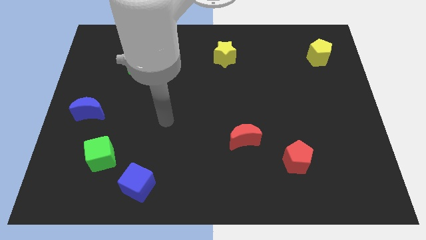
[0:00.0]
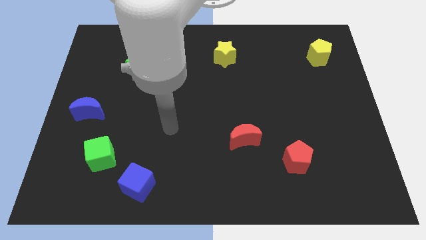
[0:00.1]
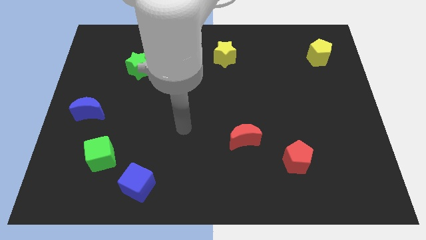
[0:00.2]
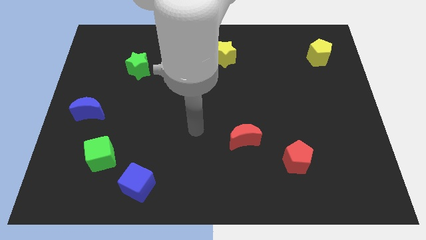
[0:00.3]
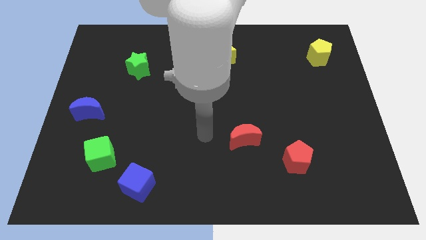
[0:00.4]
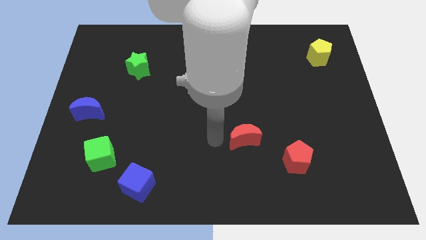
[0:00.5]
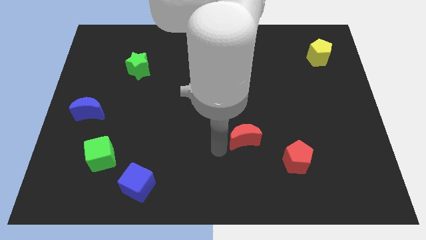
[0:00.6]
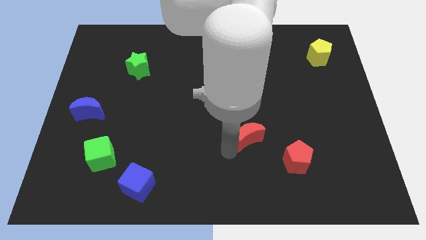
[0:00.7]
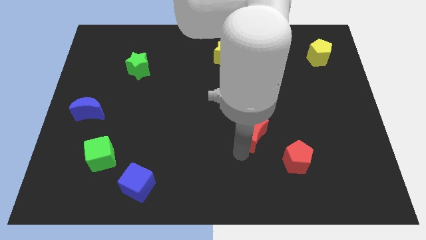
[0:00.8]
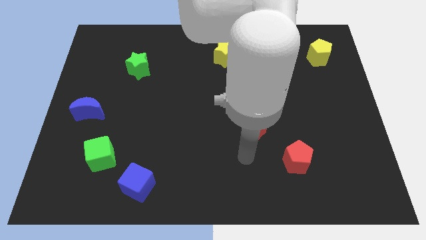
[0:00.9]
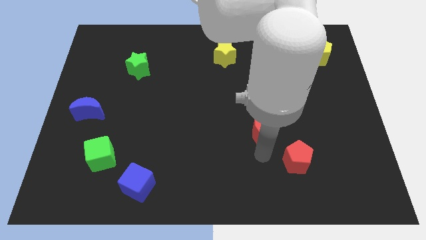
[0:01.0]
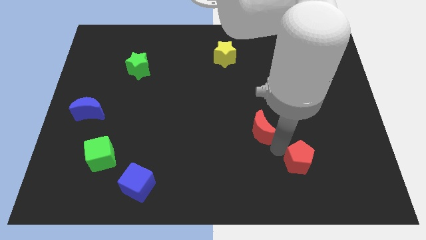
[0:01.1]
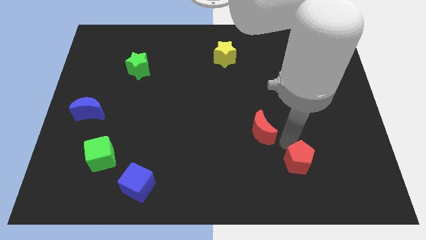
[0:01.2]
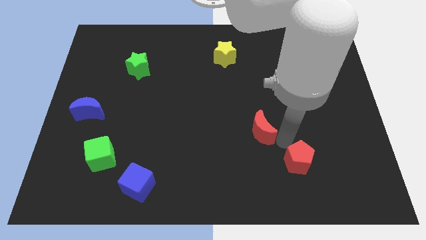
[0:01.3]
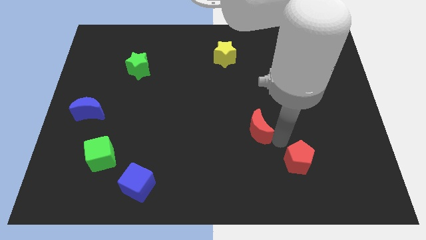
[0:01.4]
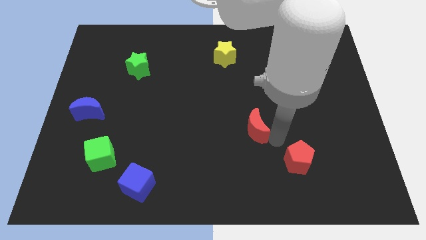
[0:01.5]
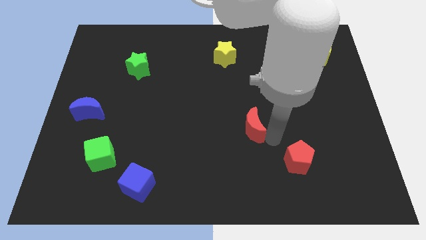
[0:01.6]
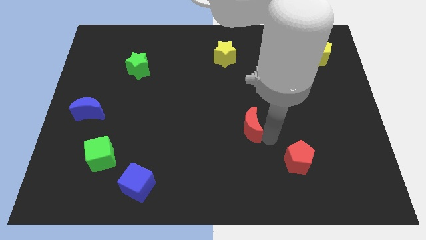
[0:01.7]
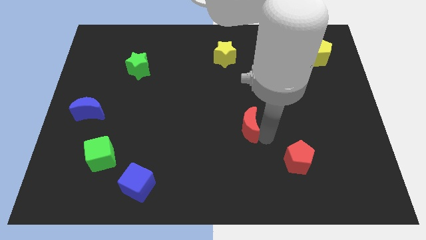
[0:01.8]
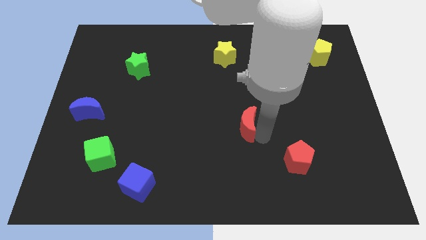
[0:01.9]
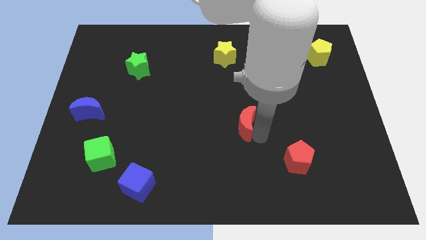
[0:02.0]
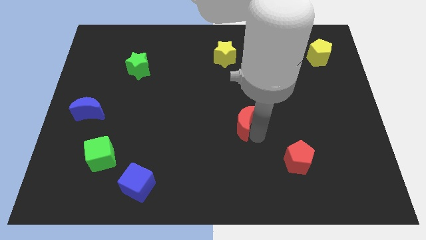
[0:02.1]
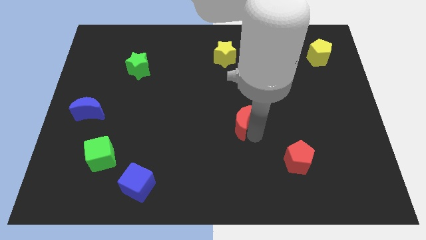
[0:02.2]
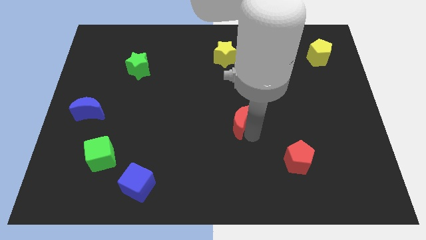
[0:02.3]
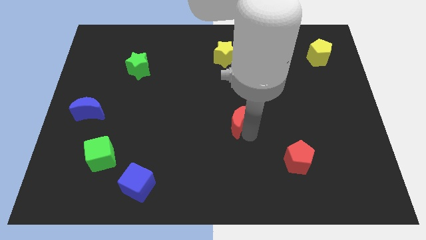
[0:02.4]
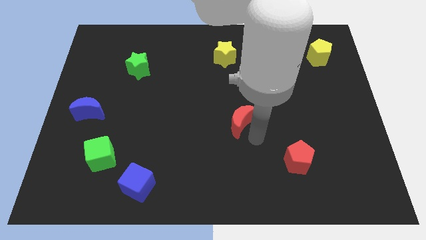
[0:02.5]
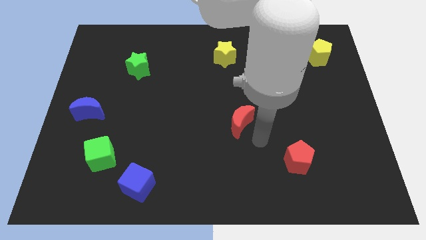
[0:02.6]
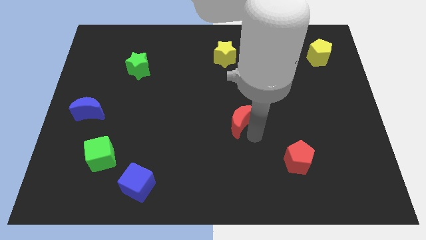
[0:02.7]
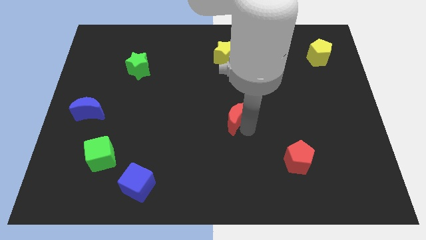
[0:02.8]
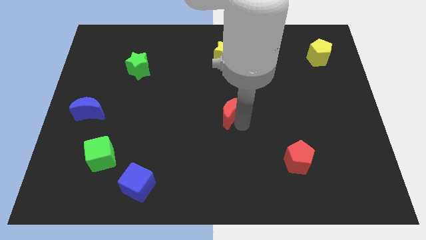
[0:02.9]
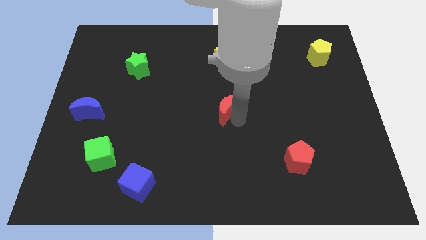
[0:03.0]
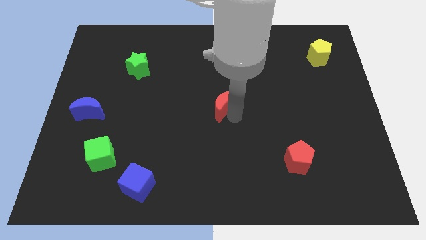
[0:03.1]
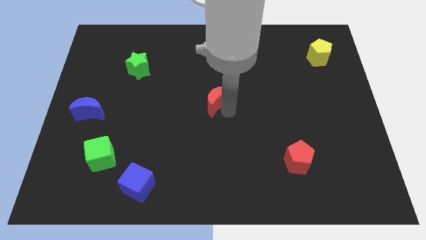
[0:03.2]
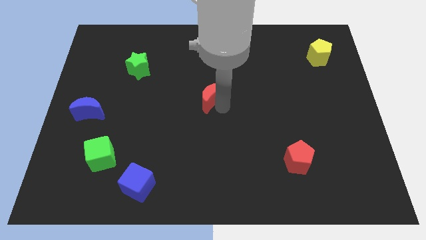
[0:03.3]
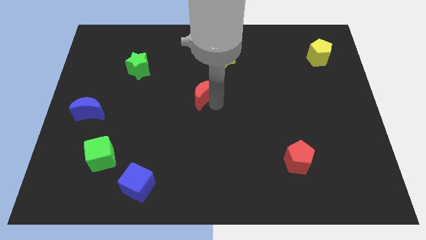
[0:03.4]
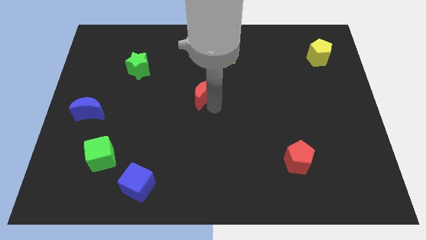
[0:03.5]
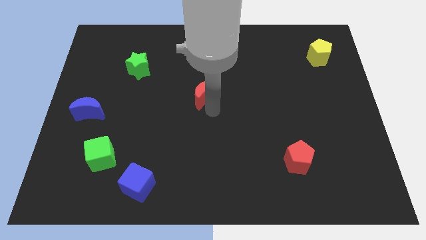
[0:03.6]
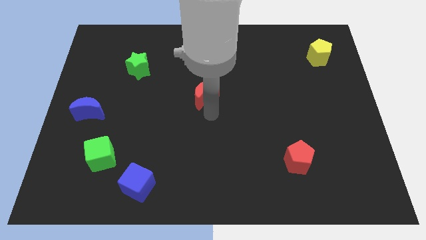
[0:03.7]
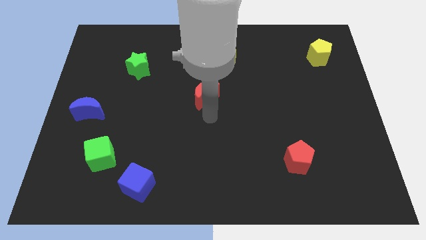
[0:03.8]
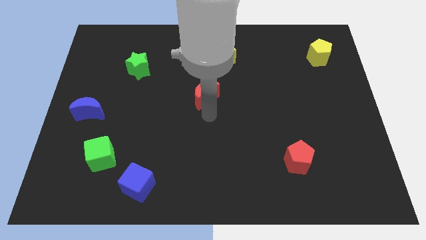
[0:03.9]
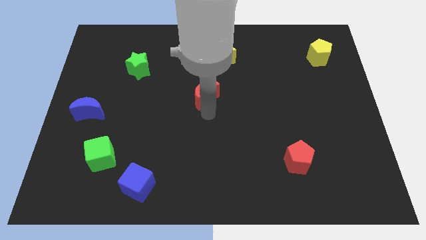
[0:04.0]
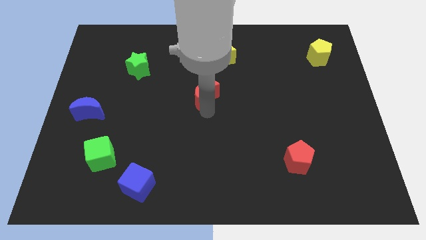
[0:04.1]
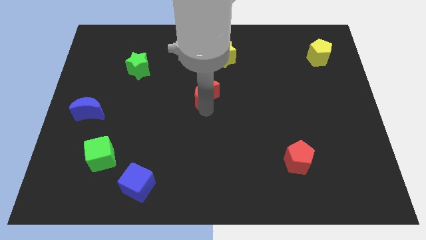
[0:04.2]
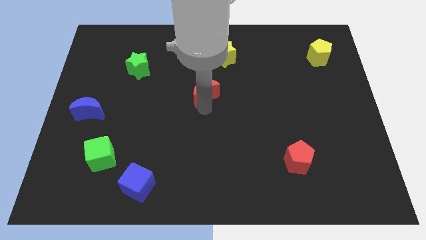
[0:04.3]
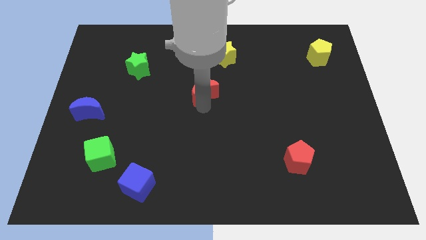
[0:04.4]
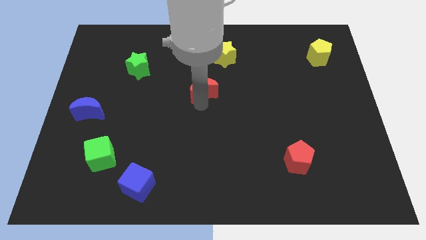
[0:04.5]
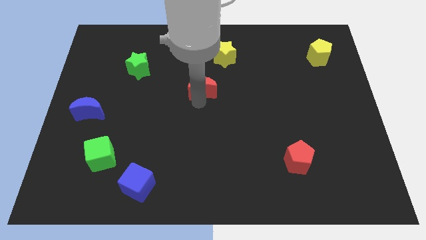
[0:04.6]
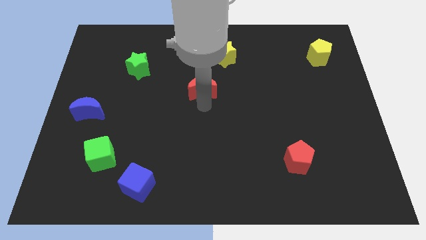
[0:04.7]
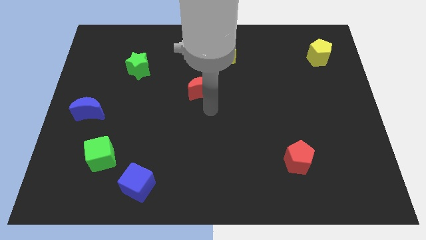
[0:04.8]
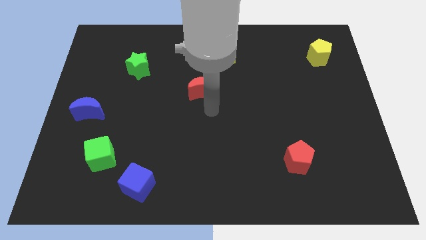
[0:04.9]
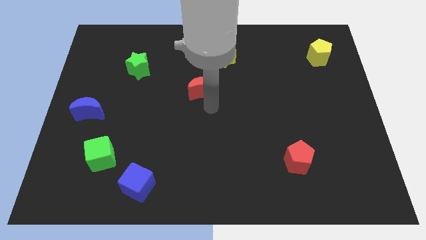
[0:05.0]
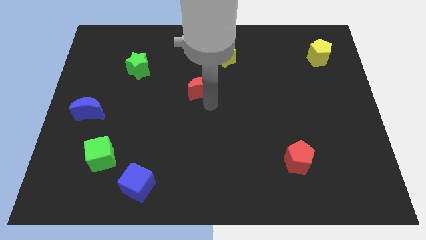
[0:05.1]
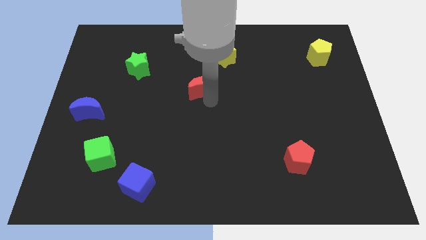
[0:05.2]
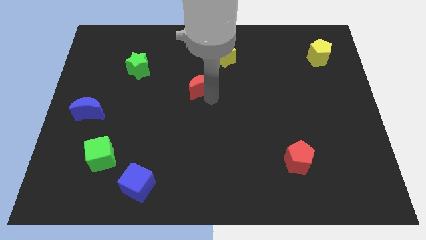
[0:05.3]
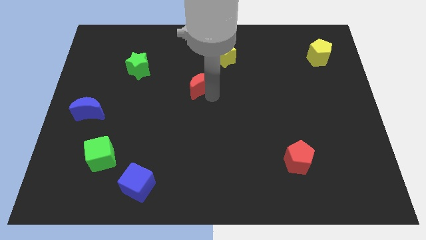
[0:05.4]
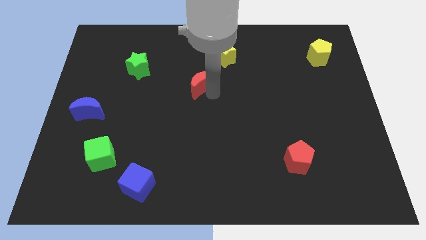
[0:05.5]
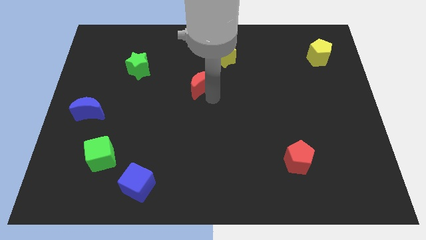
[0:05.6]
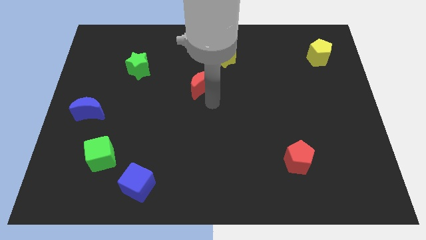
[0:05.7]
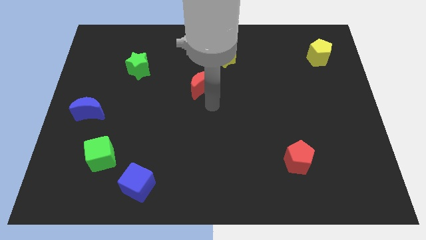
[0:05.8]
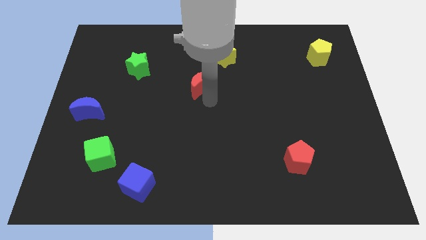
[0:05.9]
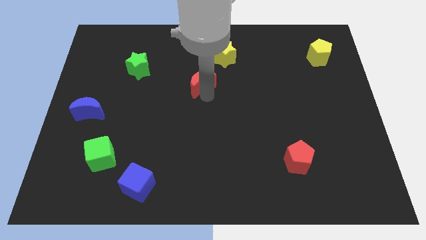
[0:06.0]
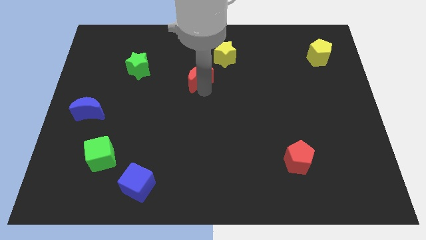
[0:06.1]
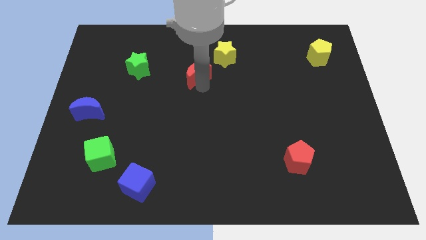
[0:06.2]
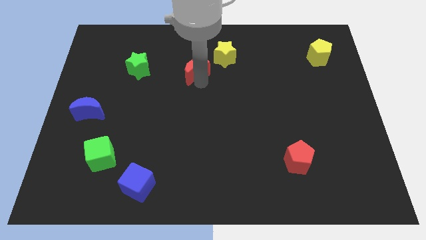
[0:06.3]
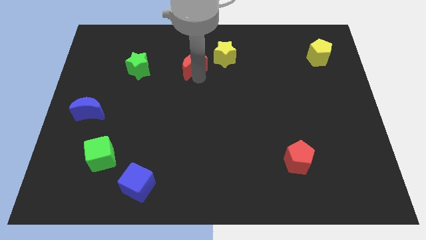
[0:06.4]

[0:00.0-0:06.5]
put the red moon left of the yellow star

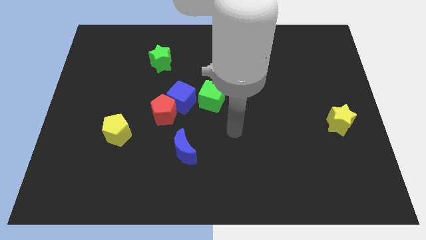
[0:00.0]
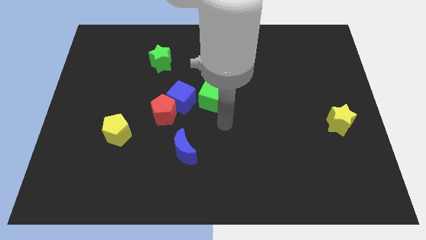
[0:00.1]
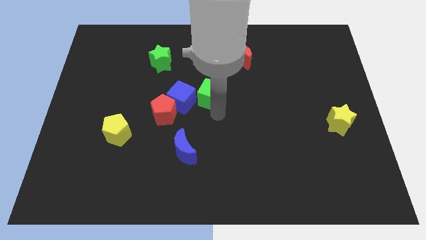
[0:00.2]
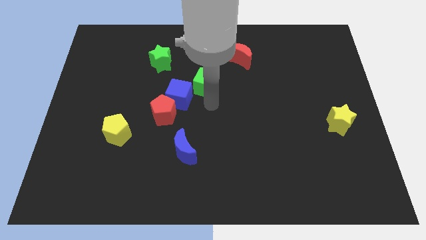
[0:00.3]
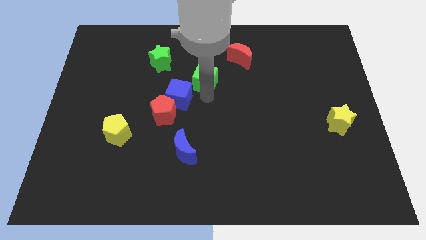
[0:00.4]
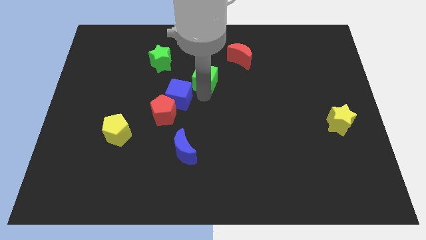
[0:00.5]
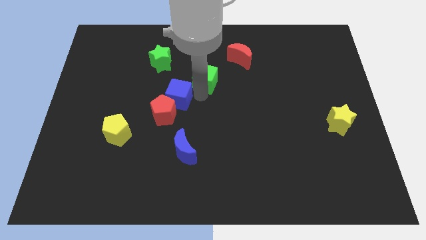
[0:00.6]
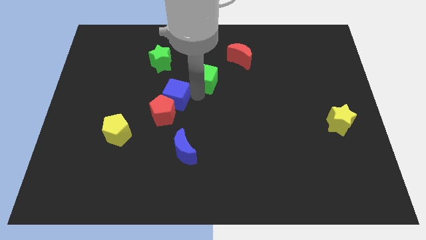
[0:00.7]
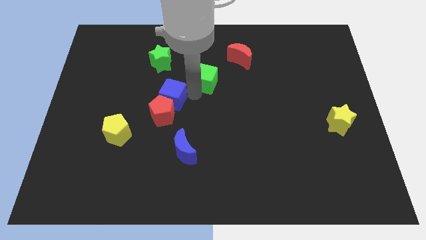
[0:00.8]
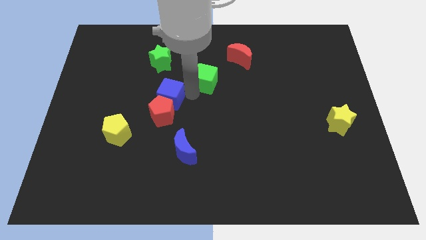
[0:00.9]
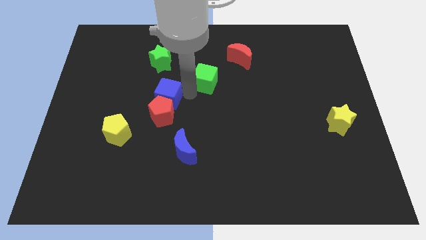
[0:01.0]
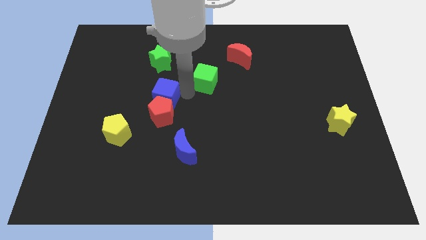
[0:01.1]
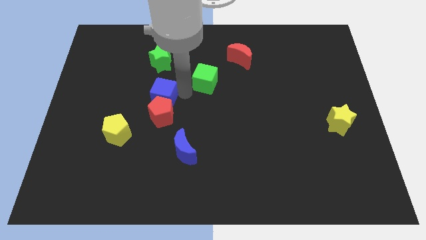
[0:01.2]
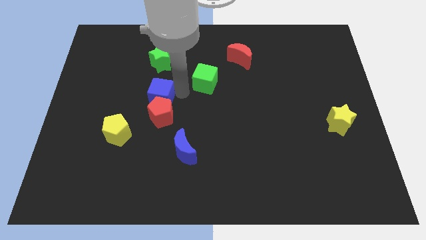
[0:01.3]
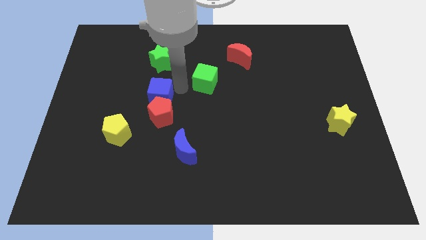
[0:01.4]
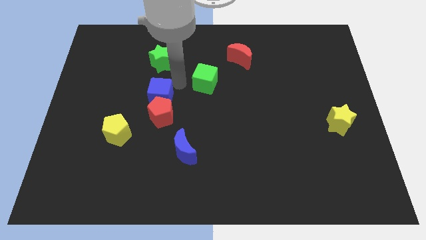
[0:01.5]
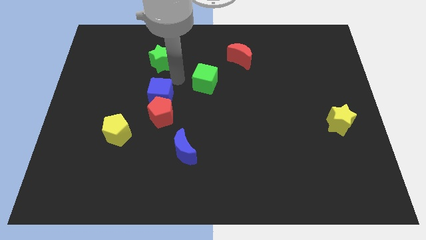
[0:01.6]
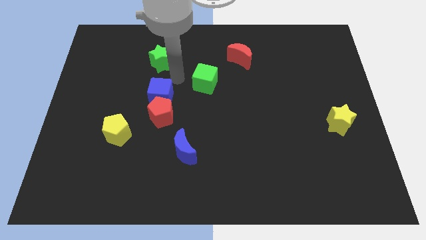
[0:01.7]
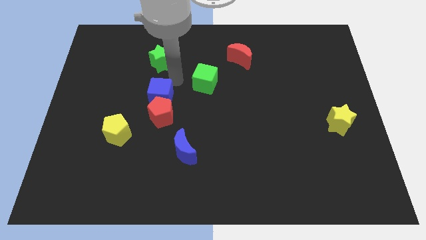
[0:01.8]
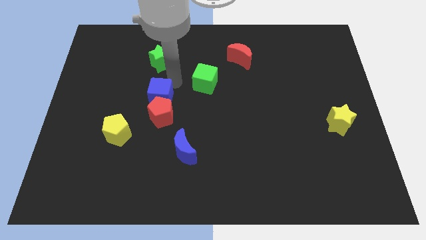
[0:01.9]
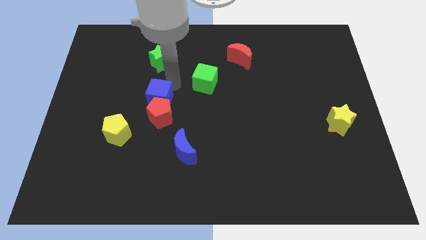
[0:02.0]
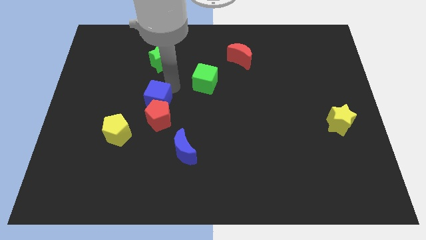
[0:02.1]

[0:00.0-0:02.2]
push the blue cube to the top right of the yellow pentagon
